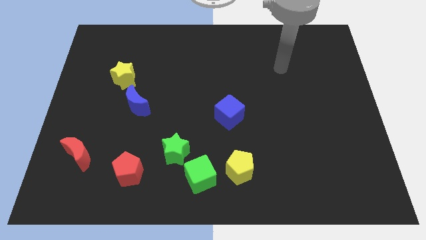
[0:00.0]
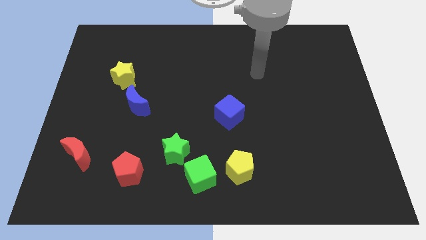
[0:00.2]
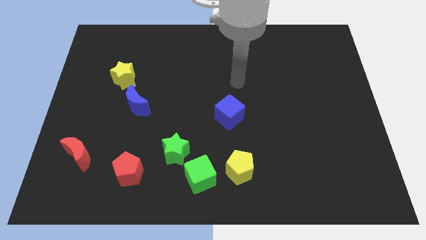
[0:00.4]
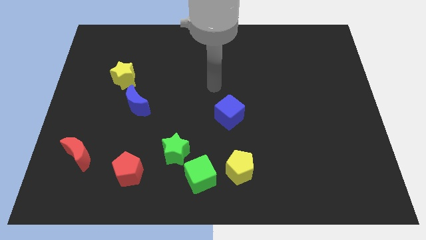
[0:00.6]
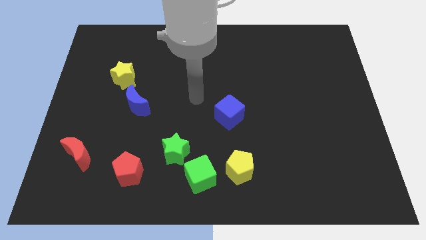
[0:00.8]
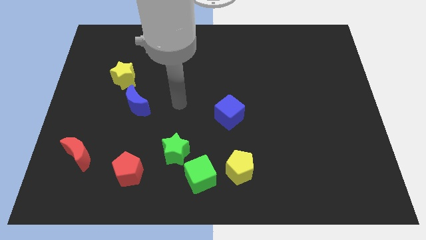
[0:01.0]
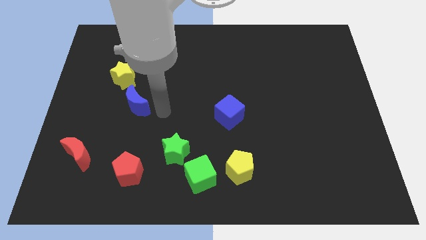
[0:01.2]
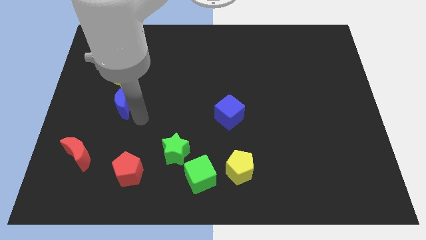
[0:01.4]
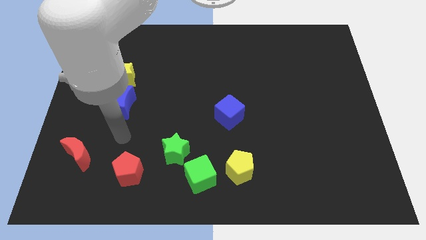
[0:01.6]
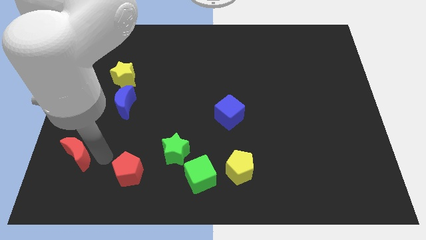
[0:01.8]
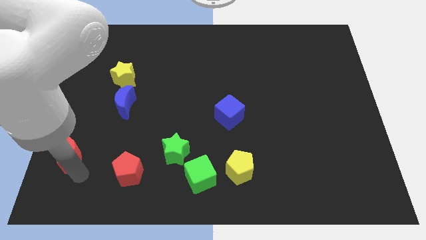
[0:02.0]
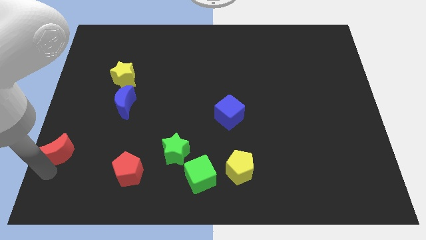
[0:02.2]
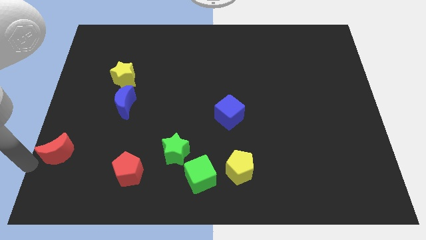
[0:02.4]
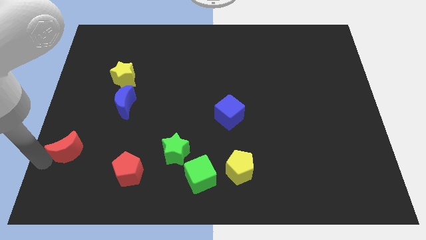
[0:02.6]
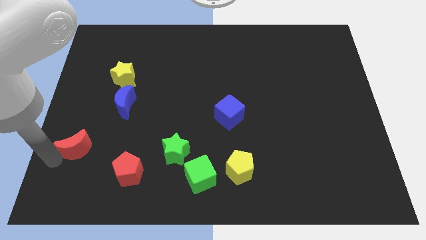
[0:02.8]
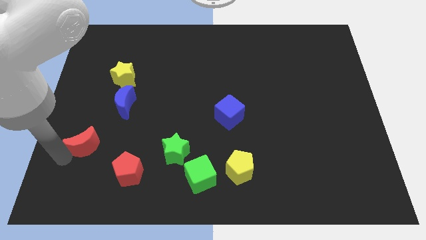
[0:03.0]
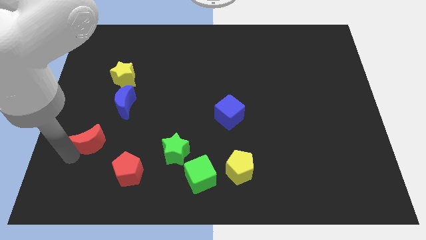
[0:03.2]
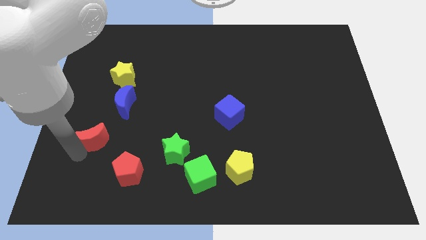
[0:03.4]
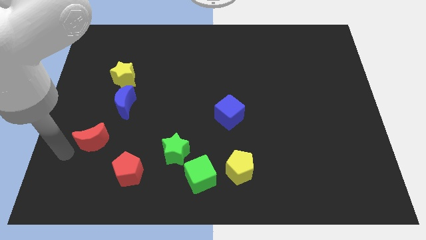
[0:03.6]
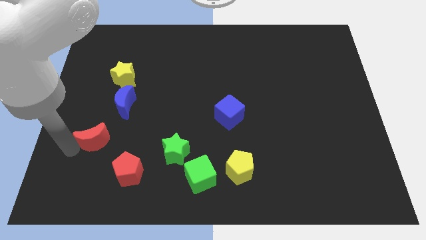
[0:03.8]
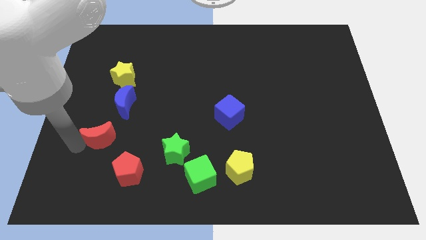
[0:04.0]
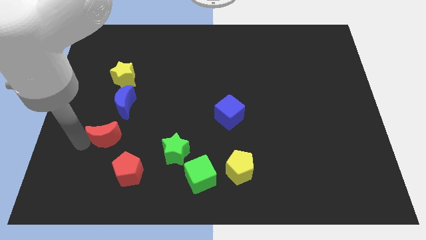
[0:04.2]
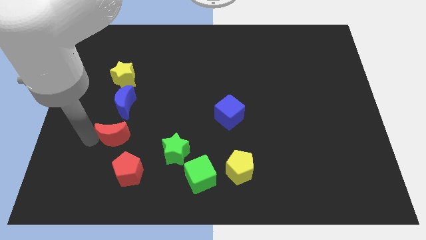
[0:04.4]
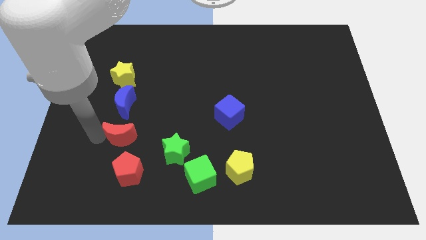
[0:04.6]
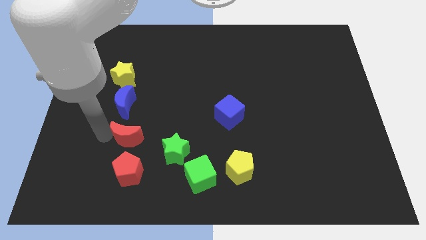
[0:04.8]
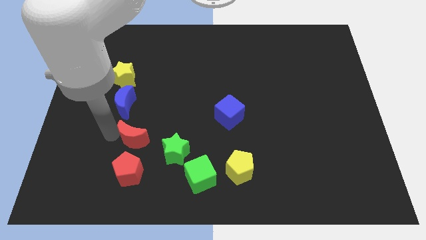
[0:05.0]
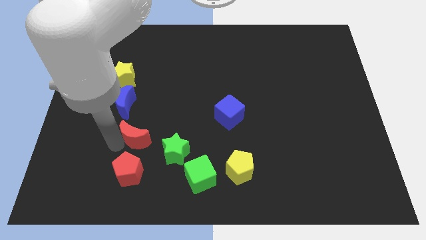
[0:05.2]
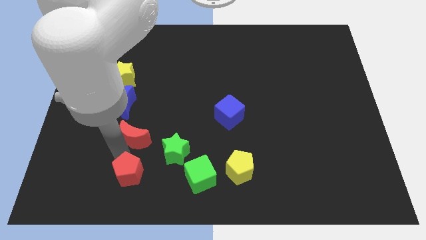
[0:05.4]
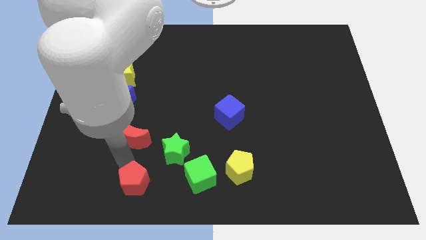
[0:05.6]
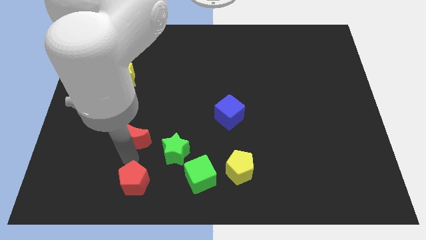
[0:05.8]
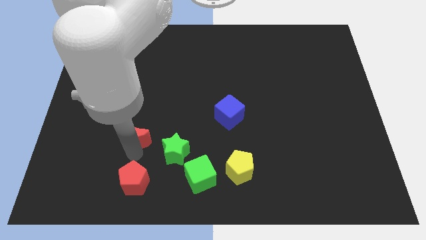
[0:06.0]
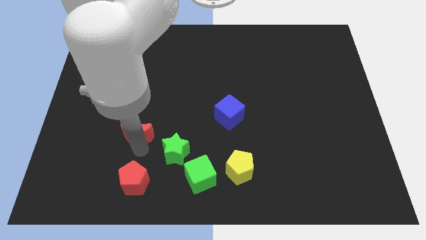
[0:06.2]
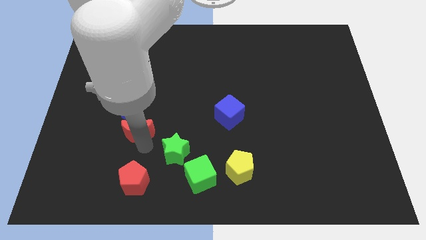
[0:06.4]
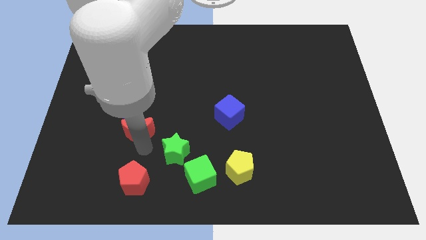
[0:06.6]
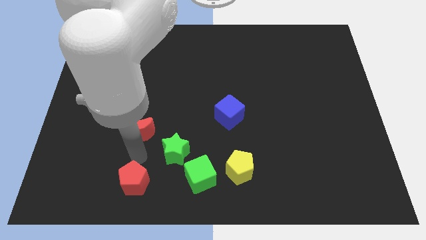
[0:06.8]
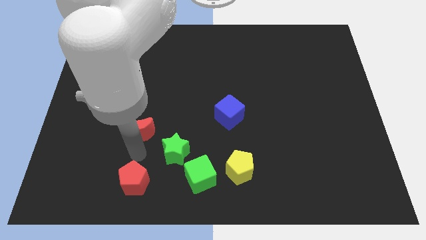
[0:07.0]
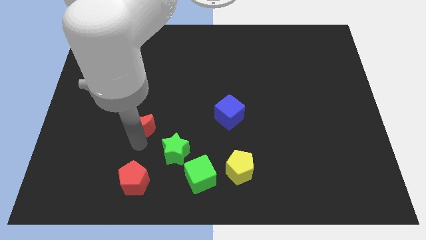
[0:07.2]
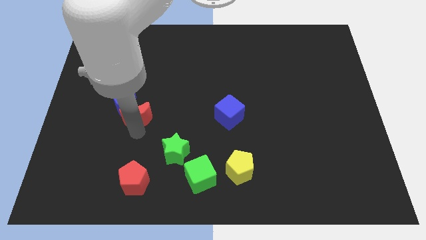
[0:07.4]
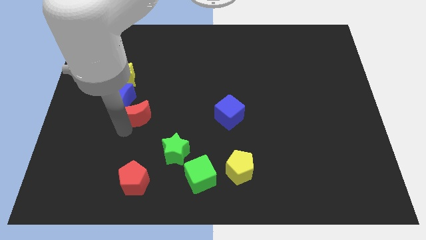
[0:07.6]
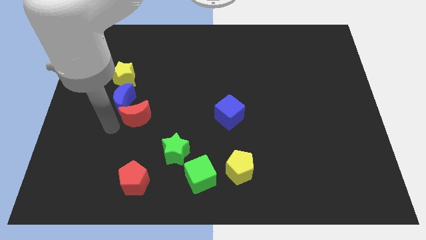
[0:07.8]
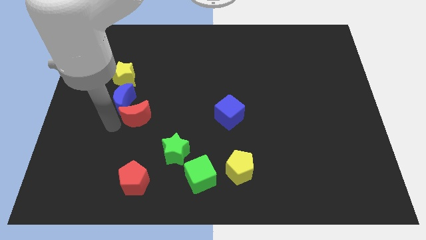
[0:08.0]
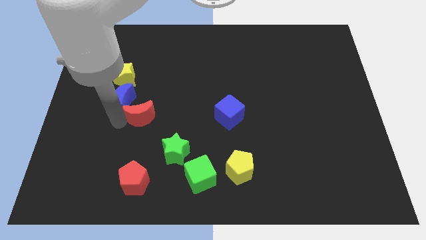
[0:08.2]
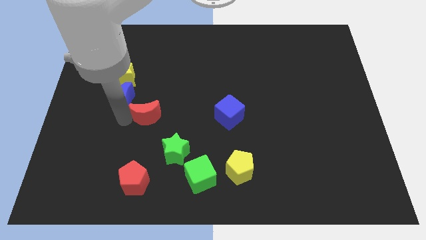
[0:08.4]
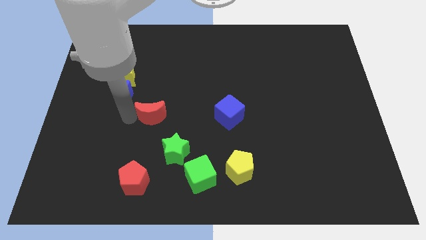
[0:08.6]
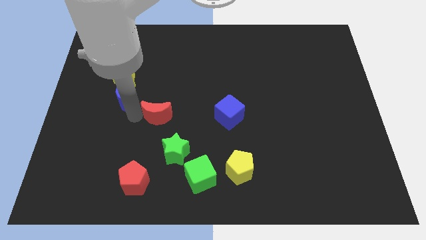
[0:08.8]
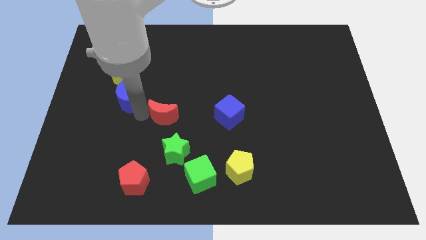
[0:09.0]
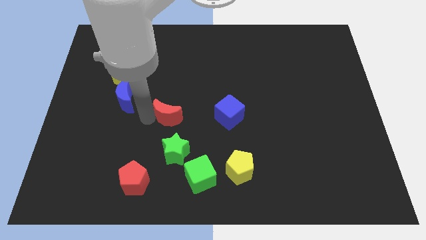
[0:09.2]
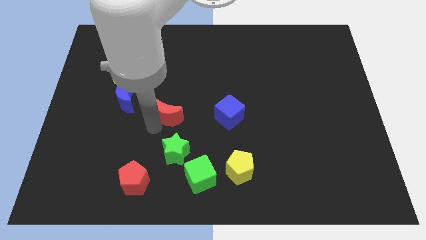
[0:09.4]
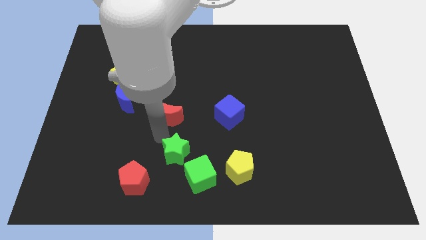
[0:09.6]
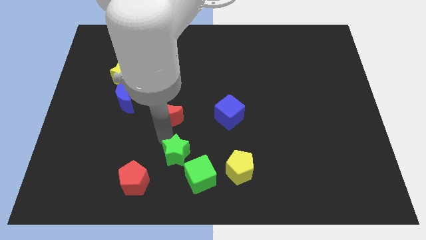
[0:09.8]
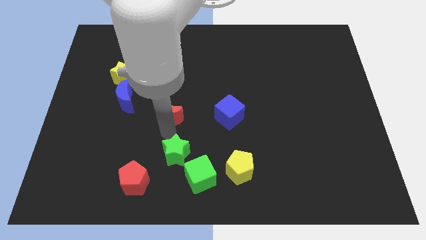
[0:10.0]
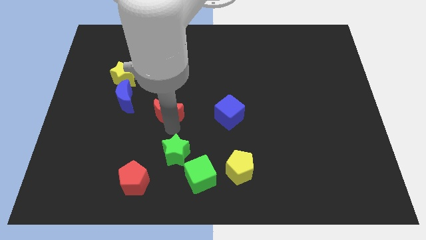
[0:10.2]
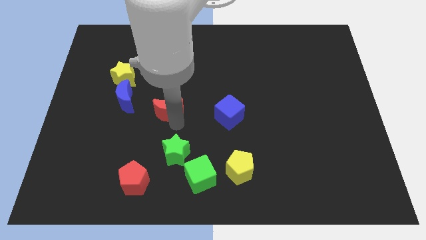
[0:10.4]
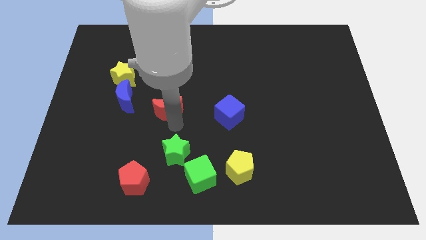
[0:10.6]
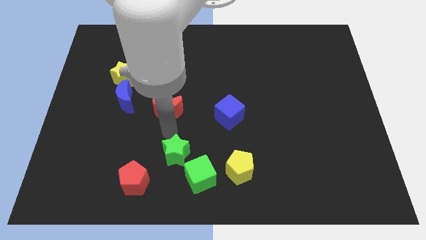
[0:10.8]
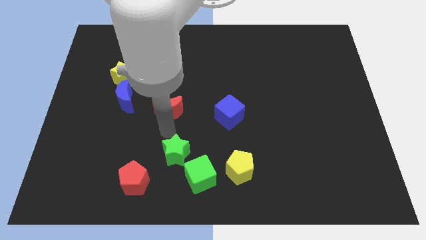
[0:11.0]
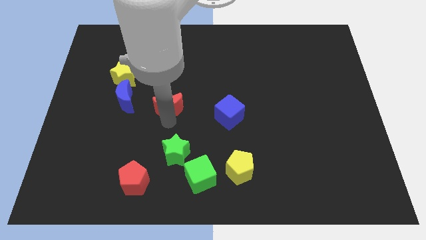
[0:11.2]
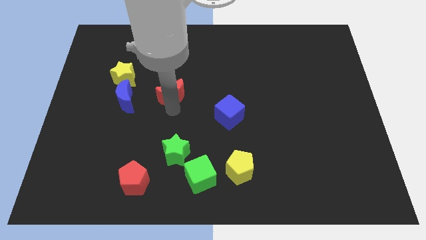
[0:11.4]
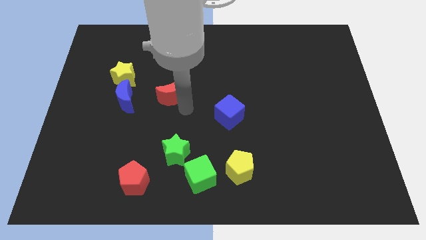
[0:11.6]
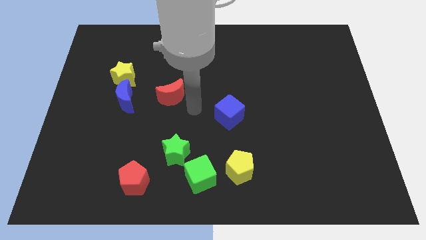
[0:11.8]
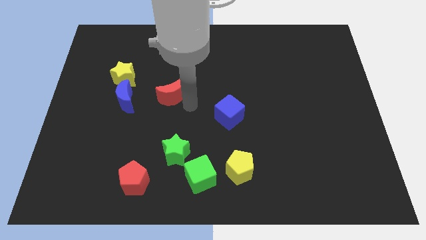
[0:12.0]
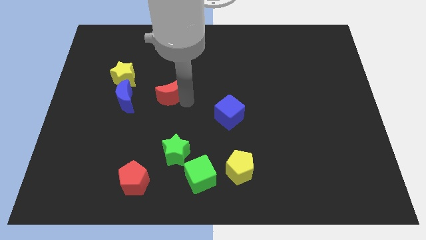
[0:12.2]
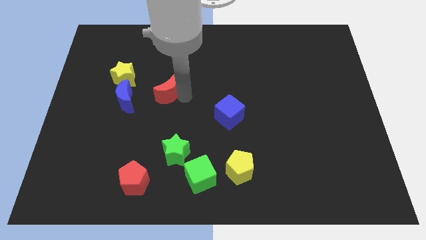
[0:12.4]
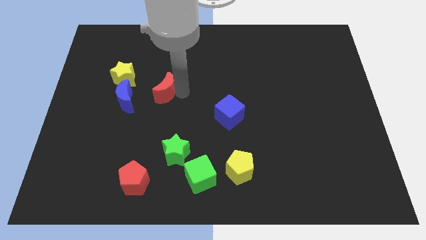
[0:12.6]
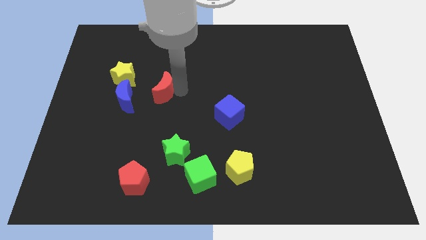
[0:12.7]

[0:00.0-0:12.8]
slide the red moon to the top right of the blue moon

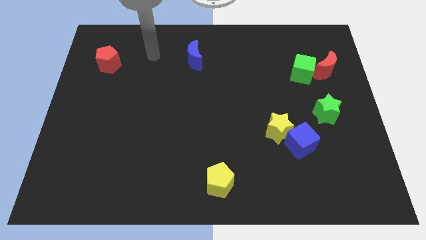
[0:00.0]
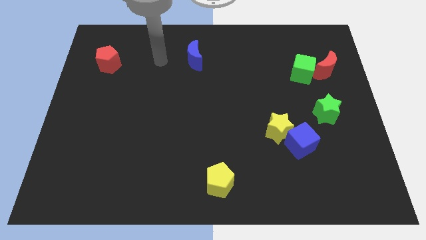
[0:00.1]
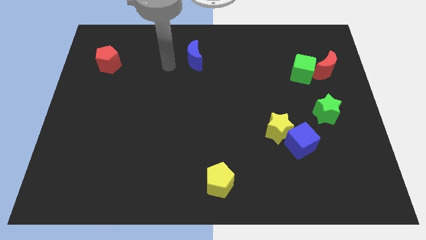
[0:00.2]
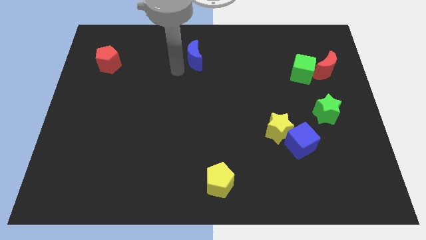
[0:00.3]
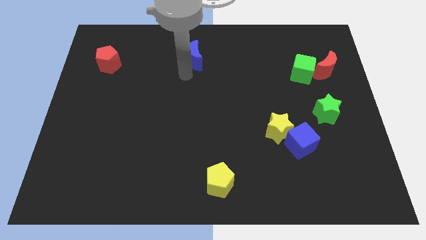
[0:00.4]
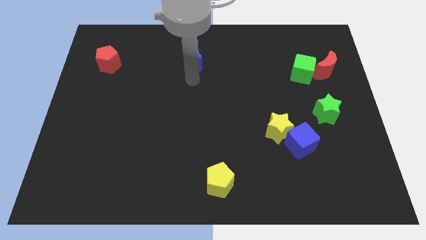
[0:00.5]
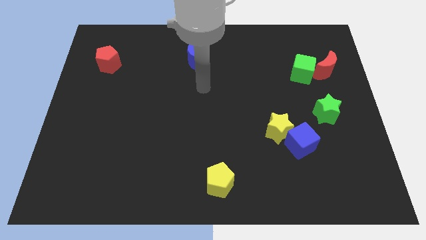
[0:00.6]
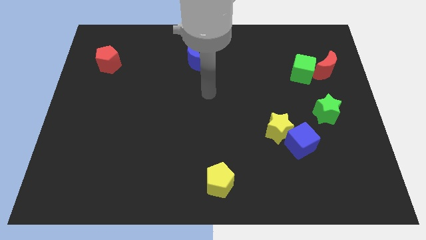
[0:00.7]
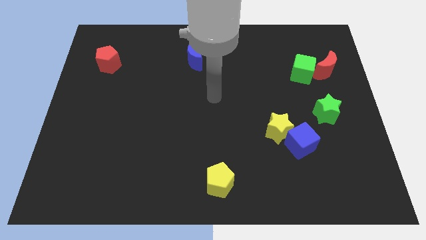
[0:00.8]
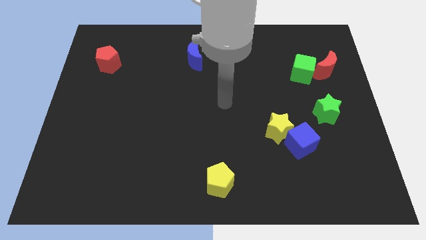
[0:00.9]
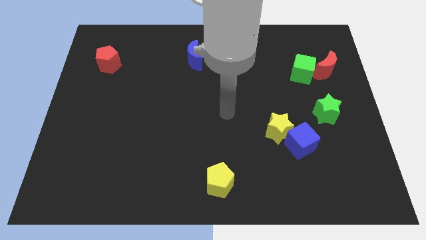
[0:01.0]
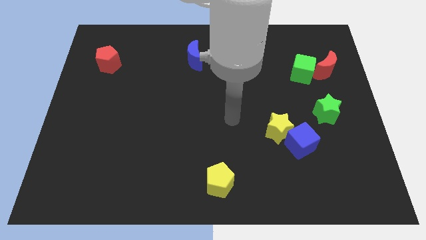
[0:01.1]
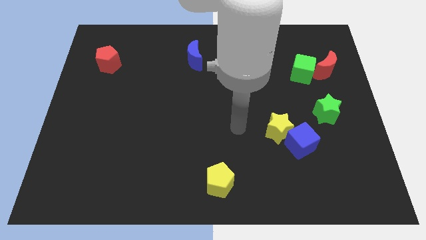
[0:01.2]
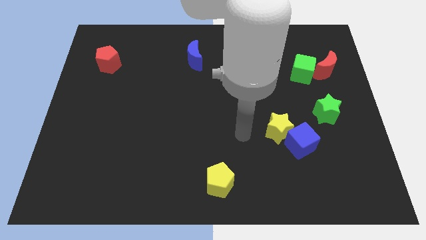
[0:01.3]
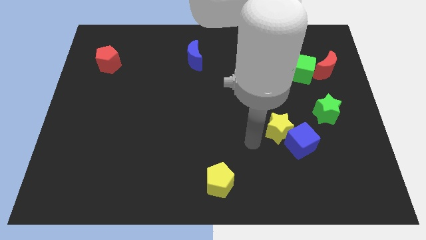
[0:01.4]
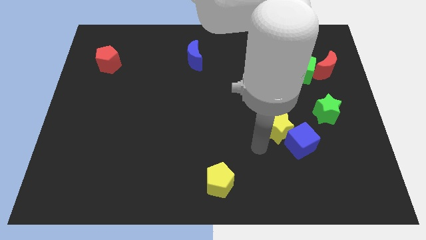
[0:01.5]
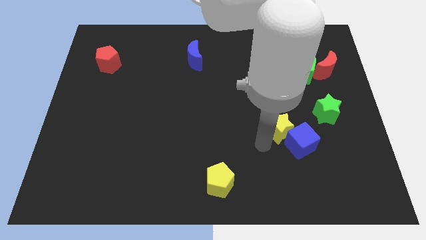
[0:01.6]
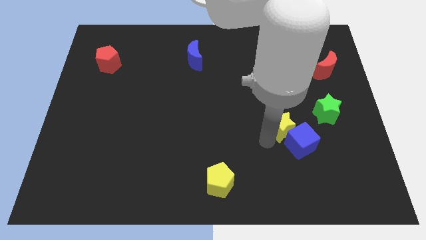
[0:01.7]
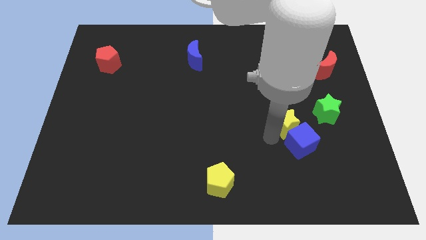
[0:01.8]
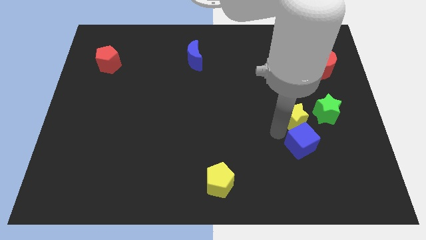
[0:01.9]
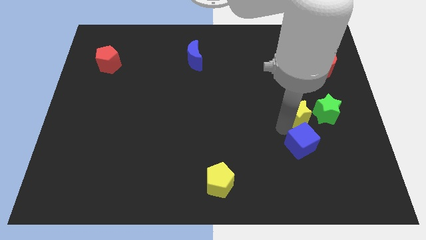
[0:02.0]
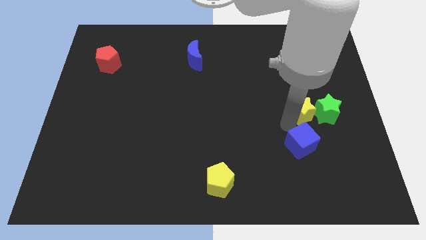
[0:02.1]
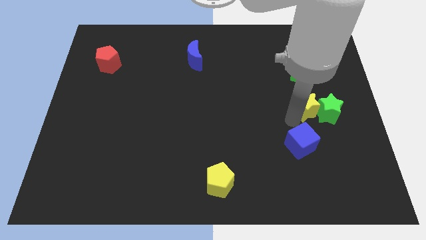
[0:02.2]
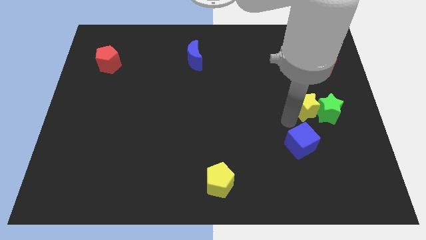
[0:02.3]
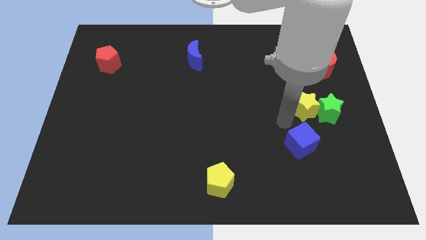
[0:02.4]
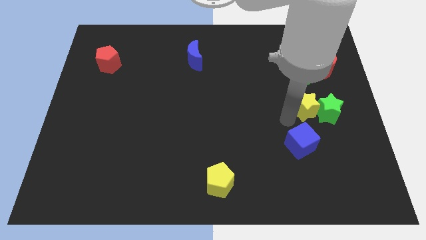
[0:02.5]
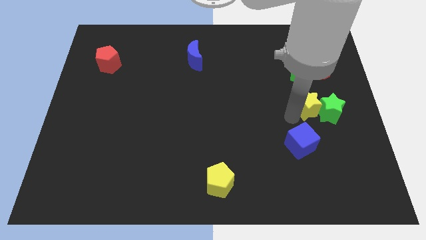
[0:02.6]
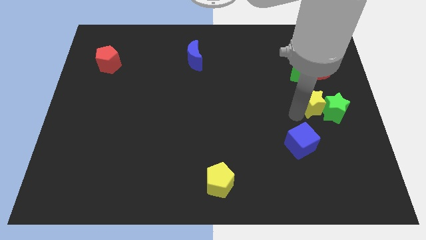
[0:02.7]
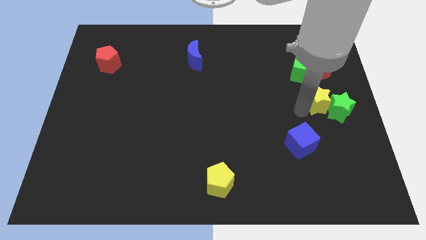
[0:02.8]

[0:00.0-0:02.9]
push the yellow star to the bottom side of the red moon
